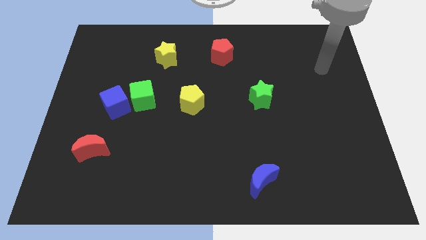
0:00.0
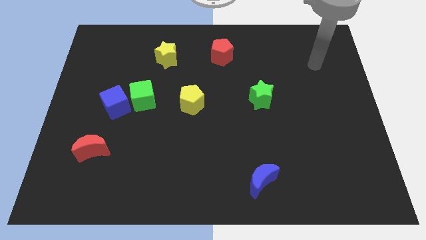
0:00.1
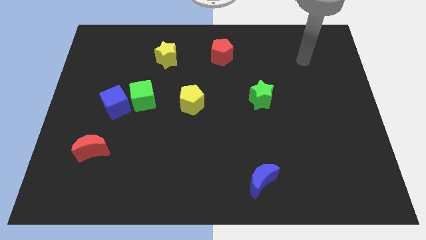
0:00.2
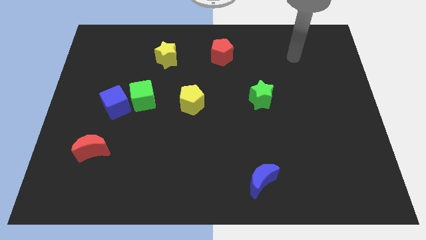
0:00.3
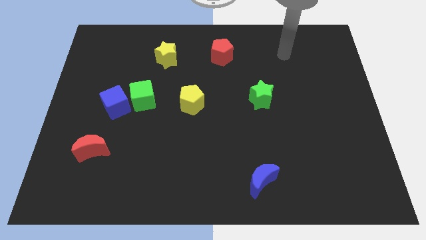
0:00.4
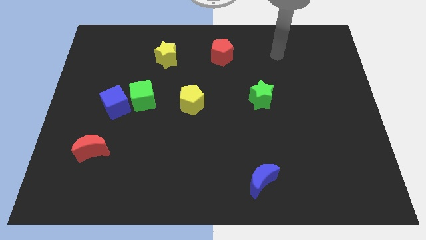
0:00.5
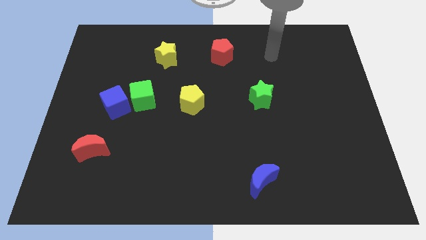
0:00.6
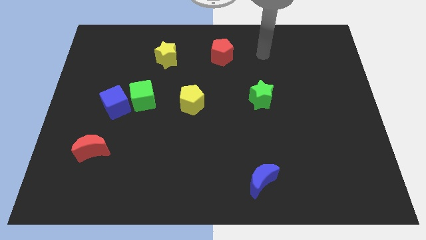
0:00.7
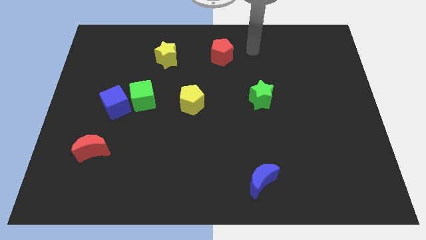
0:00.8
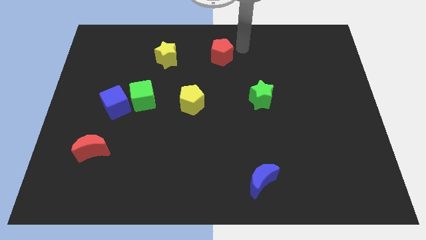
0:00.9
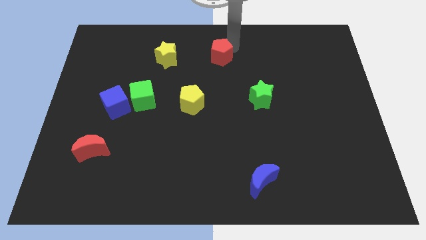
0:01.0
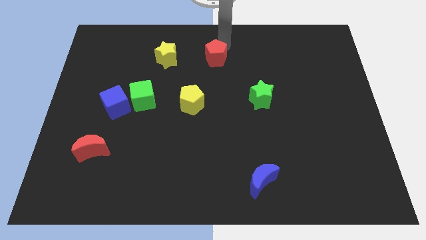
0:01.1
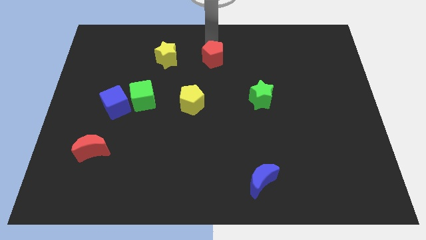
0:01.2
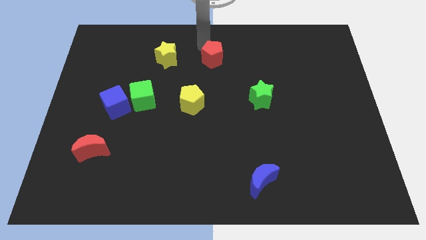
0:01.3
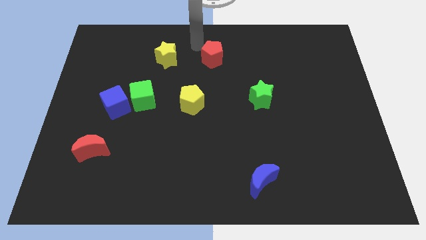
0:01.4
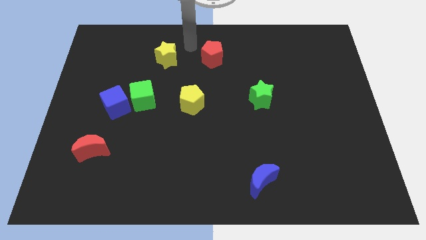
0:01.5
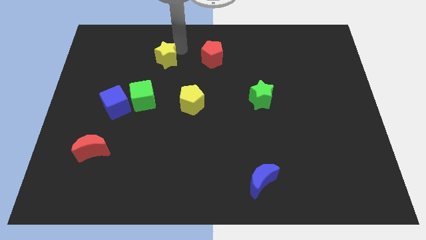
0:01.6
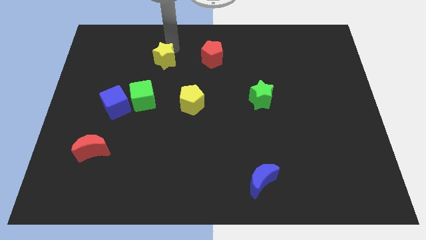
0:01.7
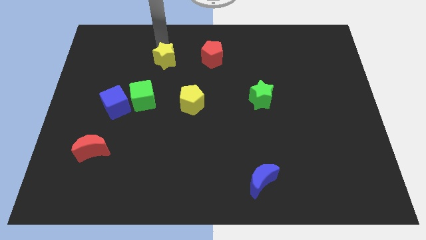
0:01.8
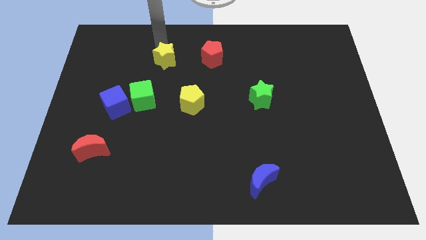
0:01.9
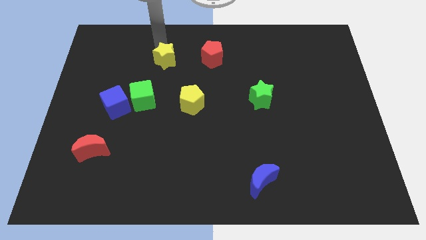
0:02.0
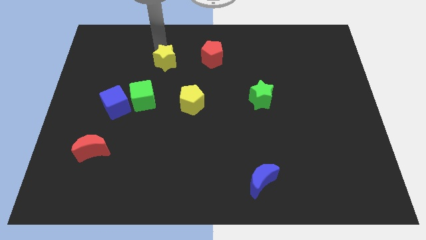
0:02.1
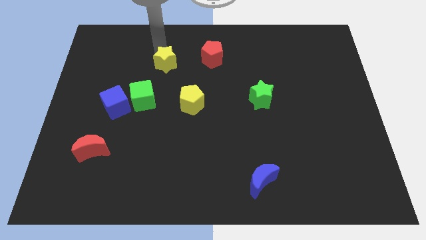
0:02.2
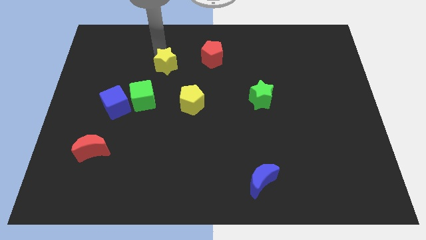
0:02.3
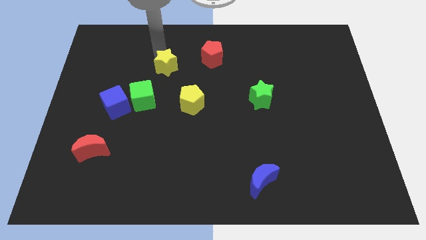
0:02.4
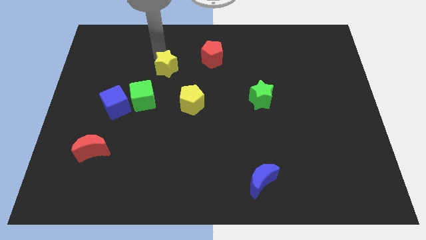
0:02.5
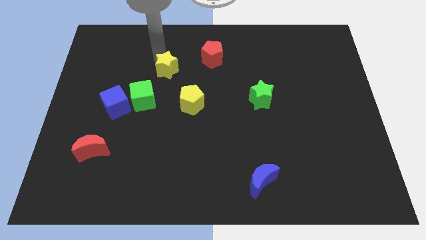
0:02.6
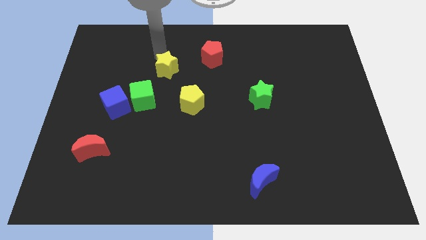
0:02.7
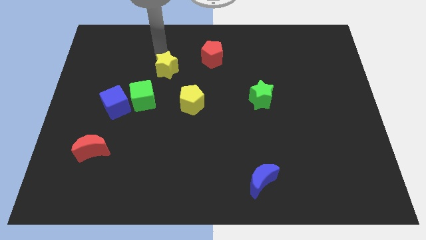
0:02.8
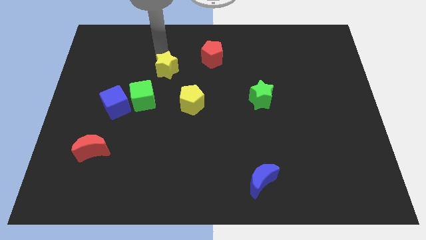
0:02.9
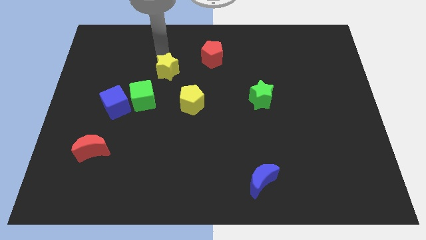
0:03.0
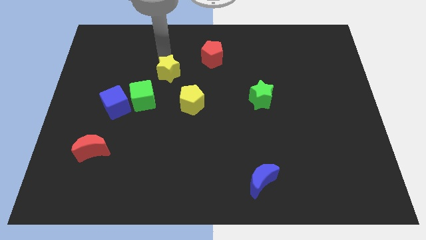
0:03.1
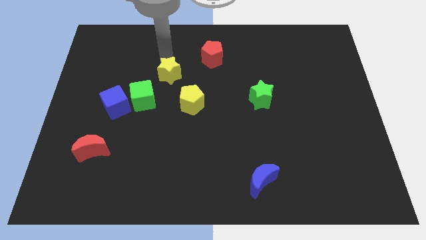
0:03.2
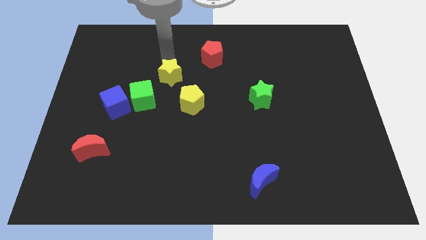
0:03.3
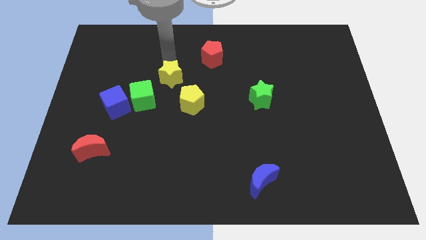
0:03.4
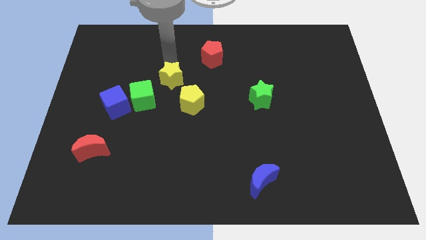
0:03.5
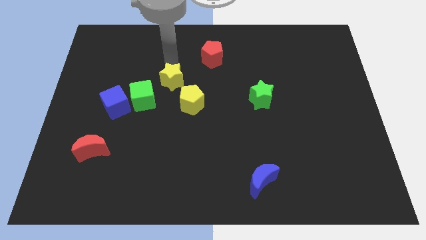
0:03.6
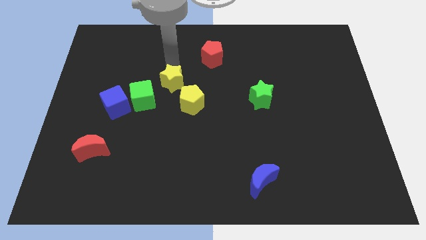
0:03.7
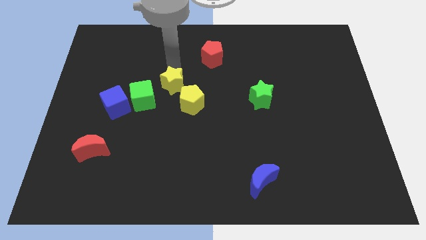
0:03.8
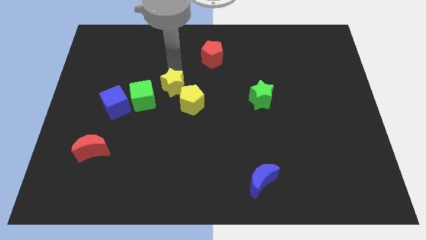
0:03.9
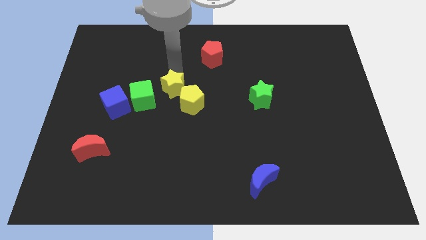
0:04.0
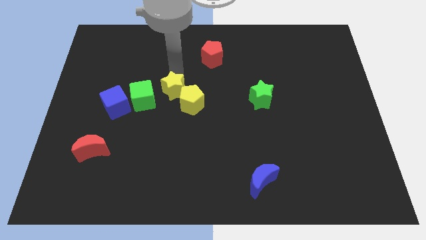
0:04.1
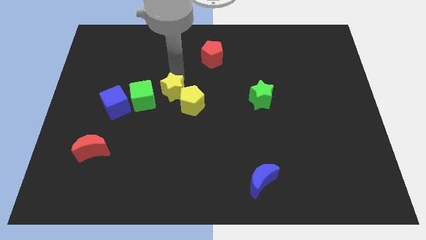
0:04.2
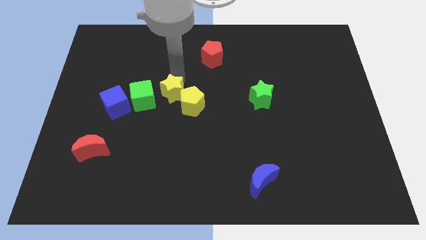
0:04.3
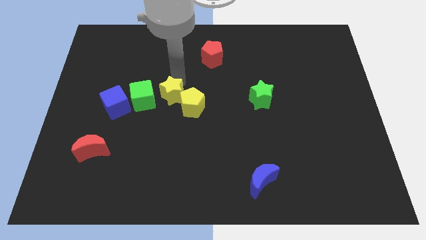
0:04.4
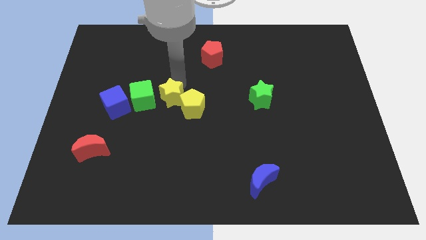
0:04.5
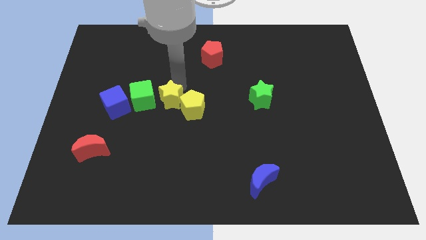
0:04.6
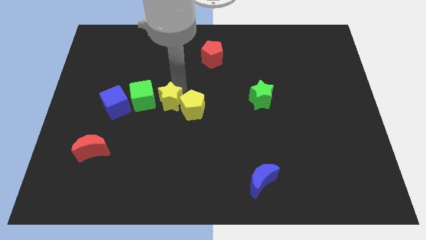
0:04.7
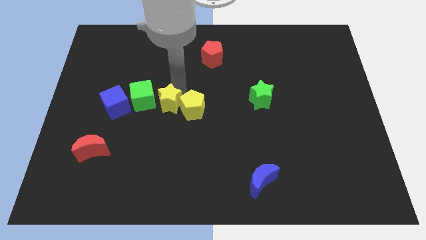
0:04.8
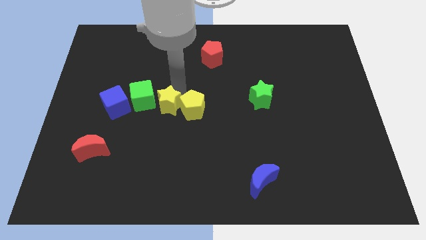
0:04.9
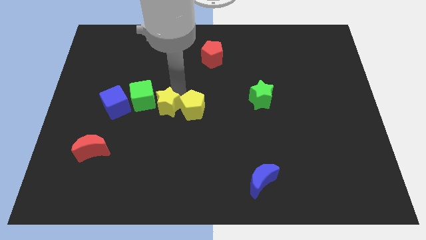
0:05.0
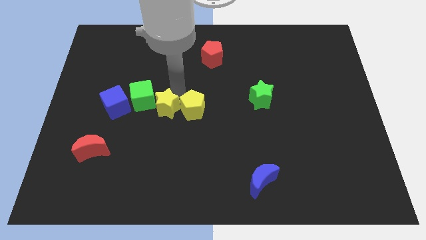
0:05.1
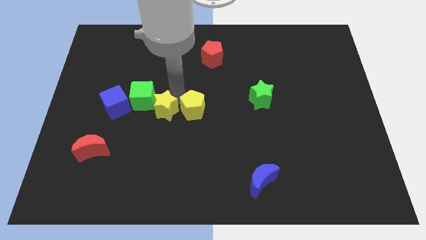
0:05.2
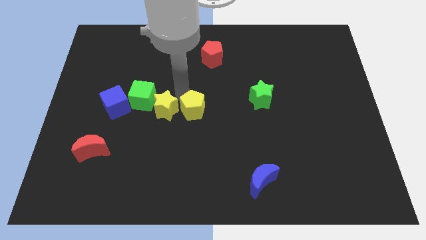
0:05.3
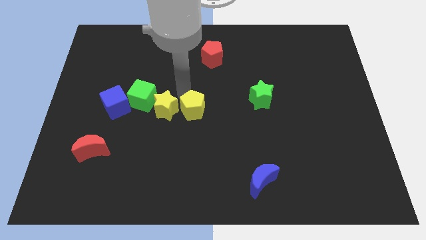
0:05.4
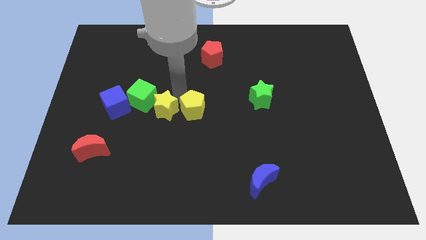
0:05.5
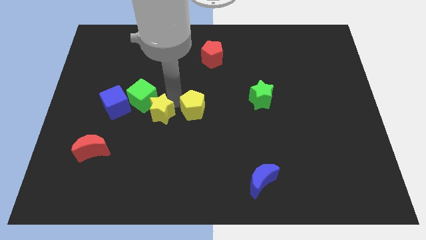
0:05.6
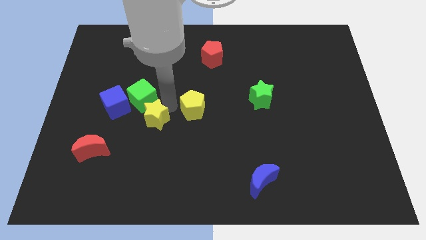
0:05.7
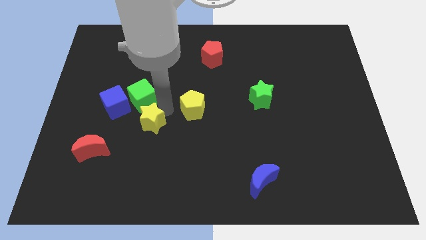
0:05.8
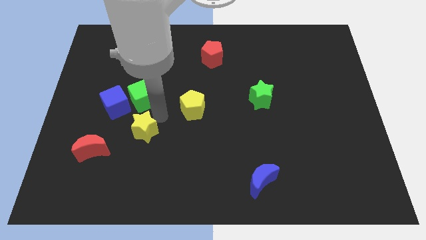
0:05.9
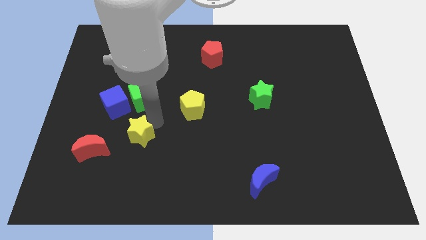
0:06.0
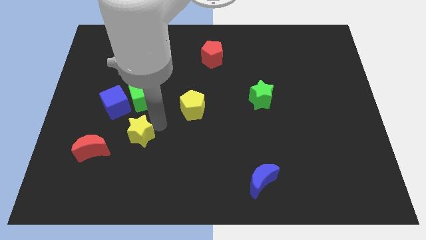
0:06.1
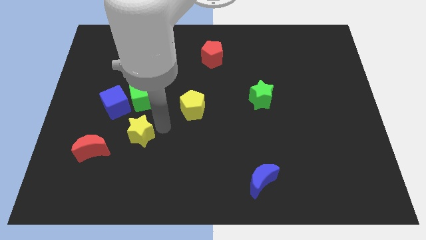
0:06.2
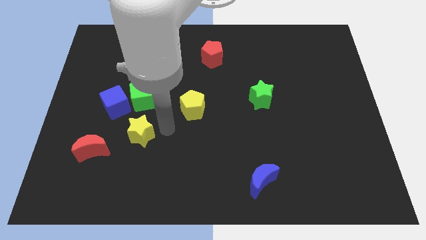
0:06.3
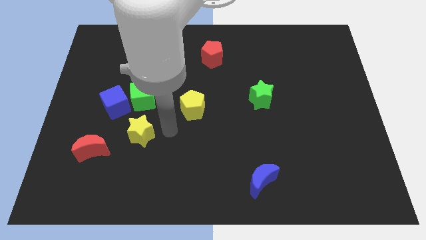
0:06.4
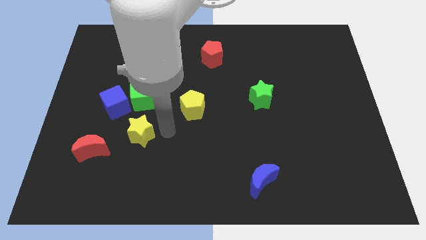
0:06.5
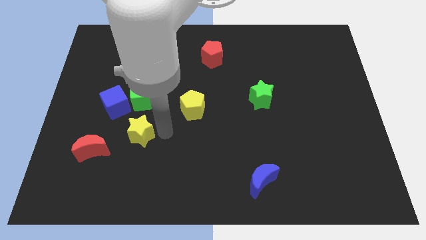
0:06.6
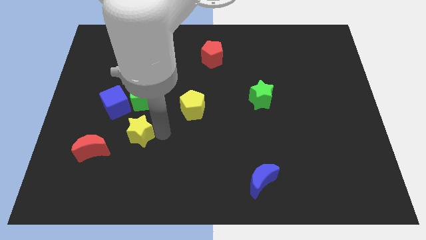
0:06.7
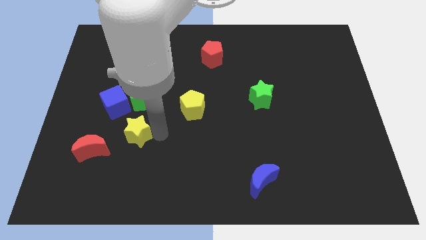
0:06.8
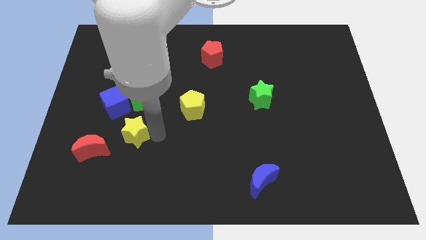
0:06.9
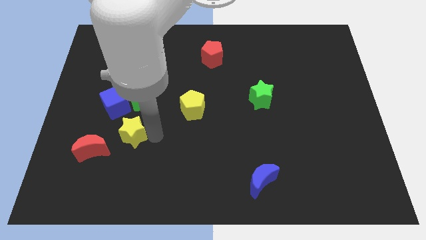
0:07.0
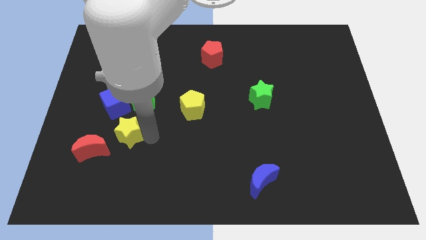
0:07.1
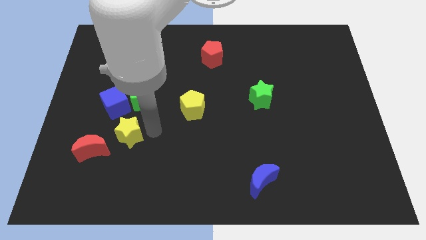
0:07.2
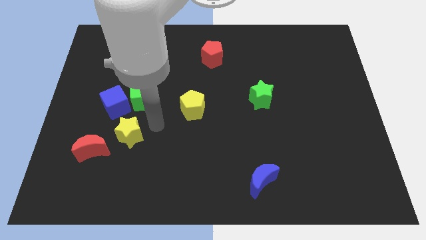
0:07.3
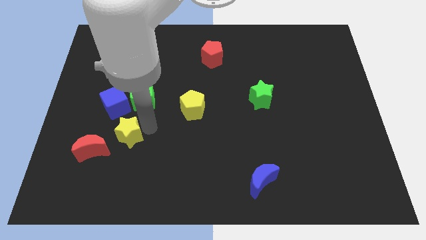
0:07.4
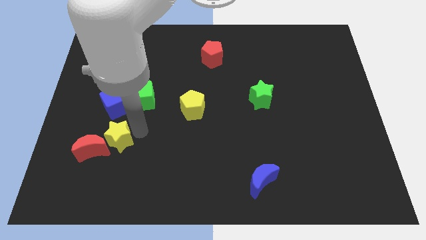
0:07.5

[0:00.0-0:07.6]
put the yellow star towards the red moon
